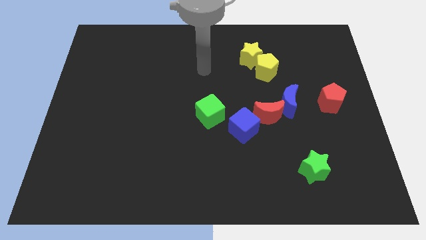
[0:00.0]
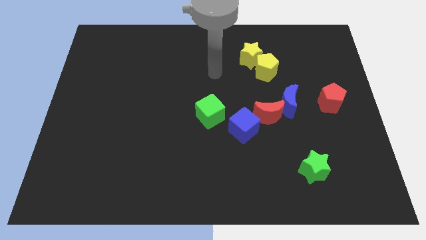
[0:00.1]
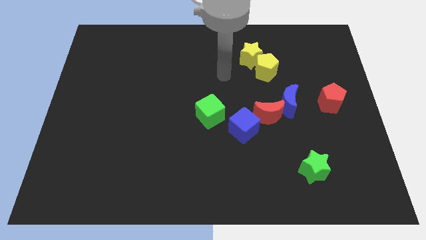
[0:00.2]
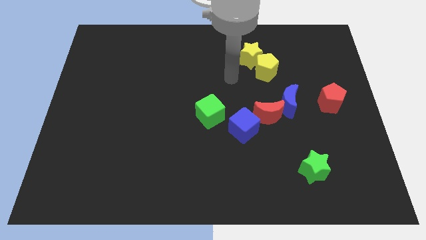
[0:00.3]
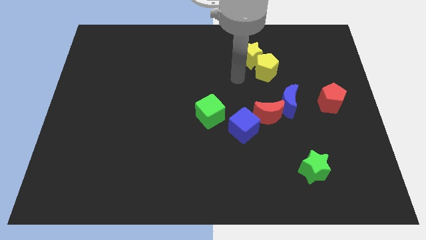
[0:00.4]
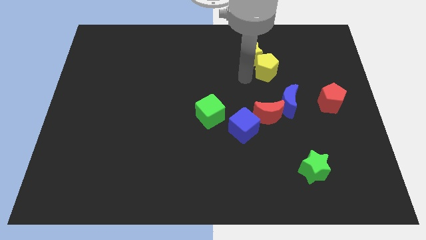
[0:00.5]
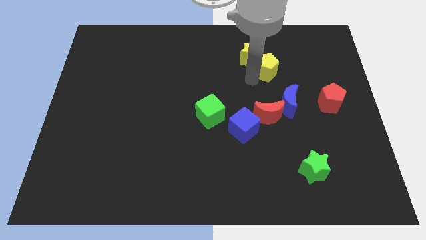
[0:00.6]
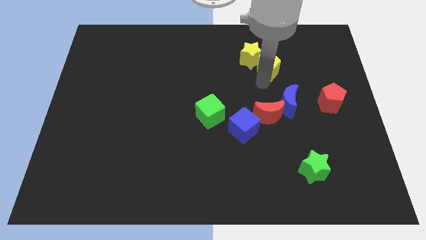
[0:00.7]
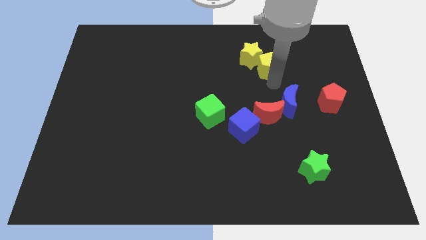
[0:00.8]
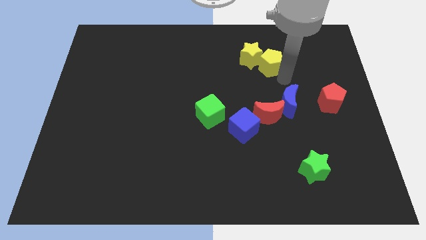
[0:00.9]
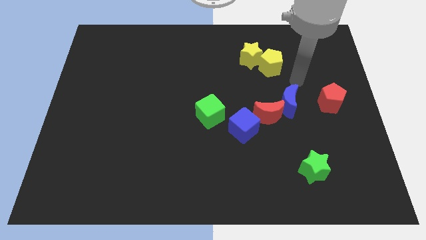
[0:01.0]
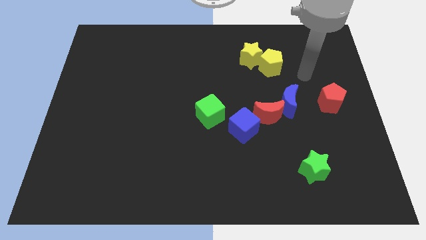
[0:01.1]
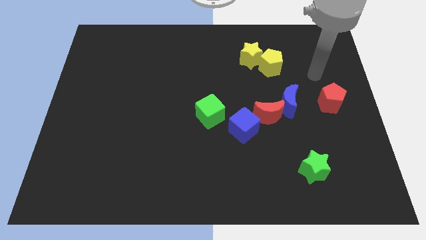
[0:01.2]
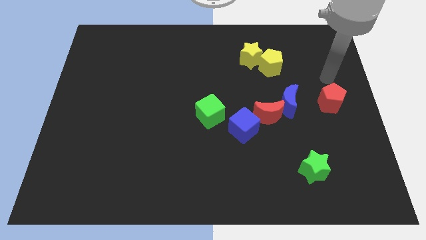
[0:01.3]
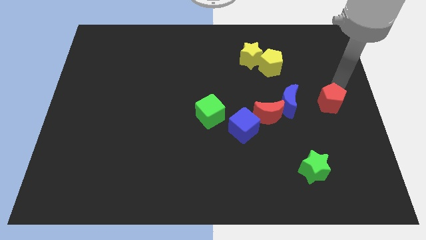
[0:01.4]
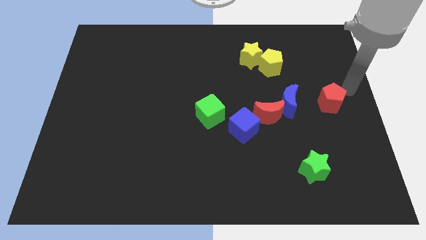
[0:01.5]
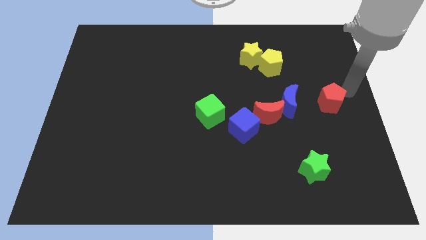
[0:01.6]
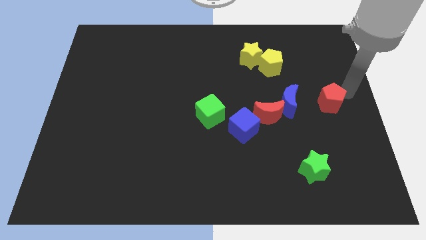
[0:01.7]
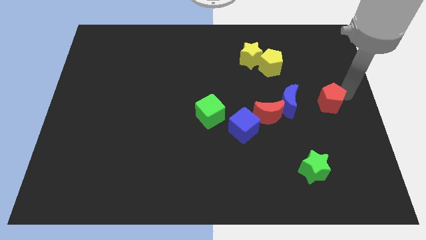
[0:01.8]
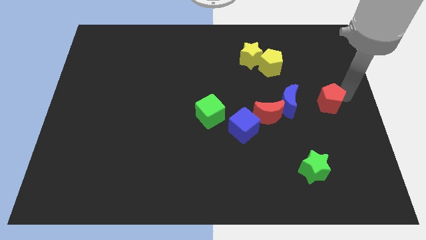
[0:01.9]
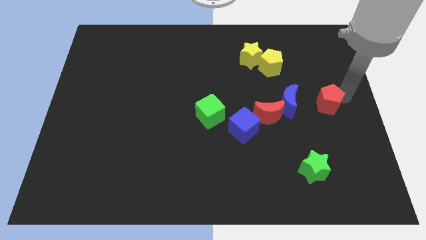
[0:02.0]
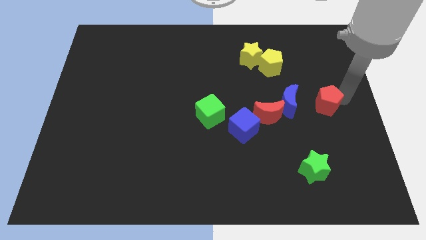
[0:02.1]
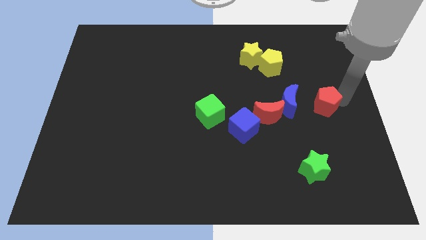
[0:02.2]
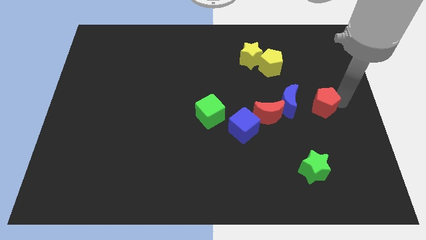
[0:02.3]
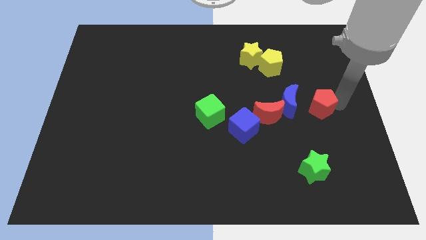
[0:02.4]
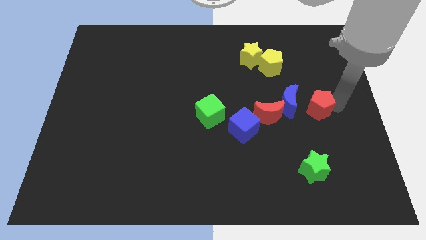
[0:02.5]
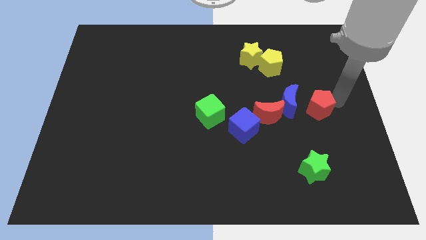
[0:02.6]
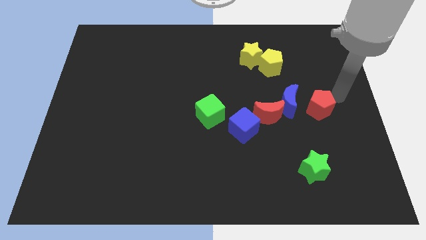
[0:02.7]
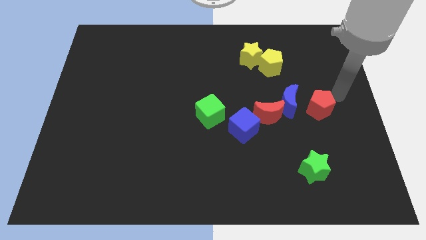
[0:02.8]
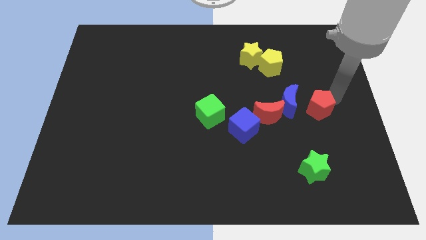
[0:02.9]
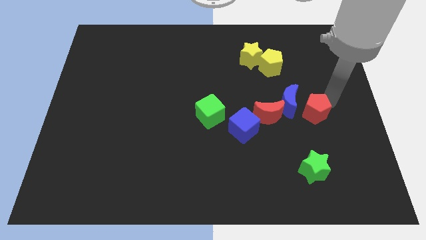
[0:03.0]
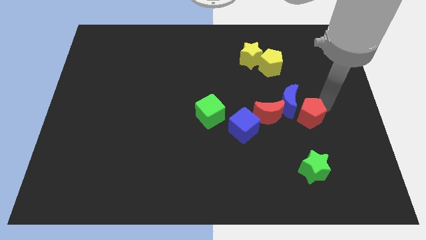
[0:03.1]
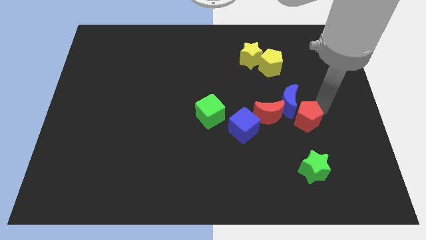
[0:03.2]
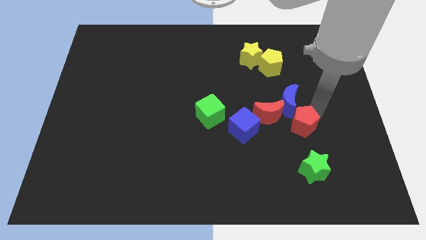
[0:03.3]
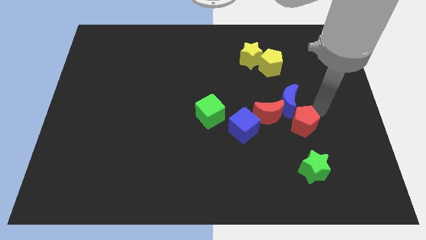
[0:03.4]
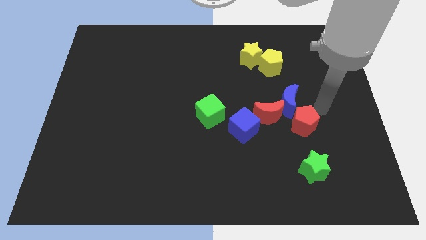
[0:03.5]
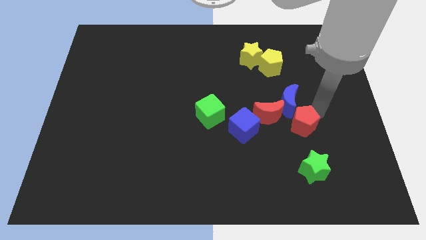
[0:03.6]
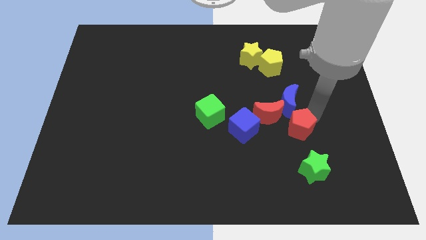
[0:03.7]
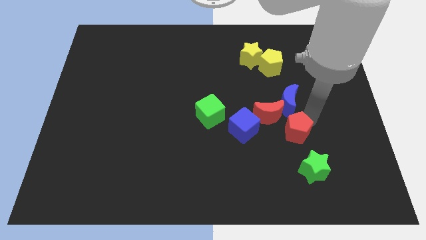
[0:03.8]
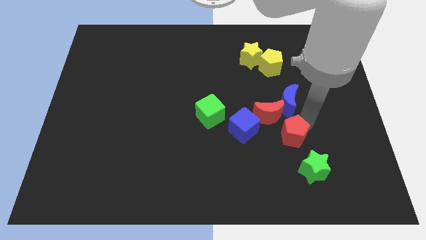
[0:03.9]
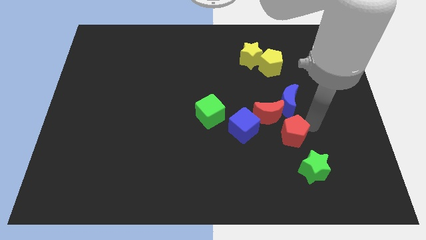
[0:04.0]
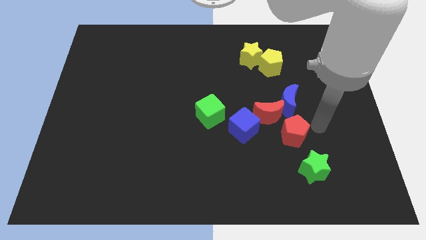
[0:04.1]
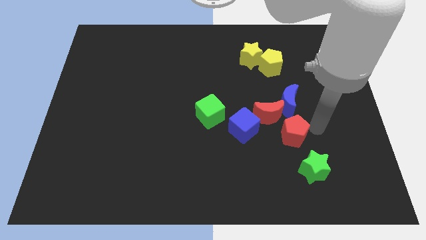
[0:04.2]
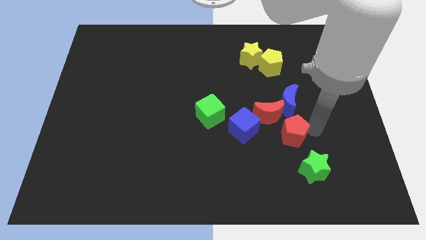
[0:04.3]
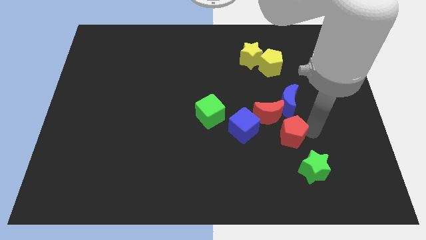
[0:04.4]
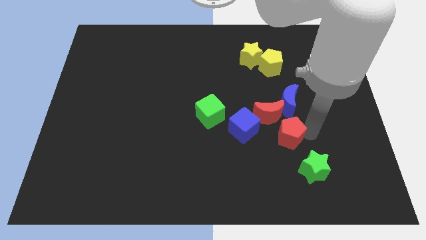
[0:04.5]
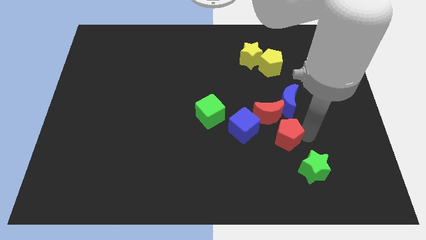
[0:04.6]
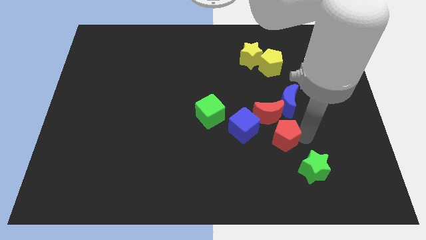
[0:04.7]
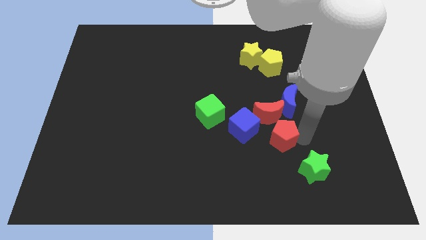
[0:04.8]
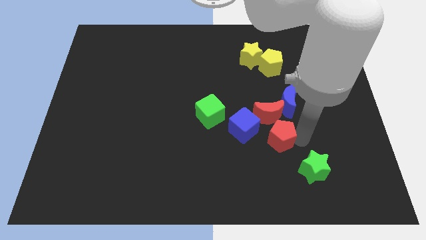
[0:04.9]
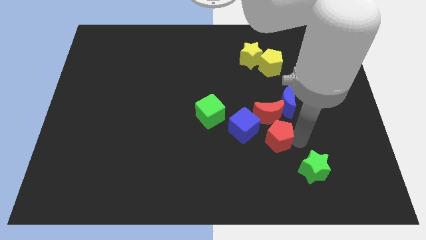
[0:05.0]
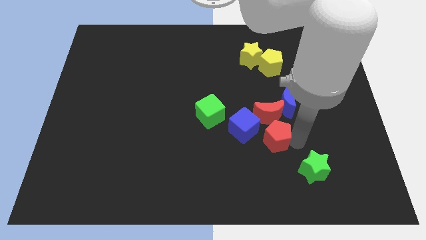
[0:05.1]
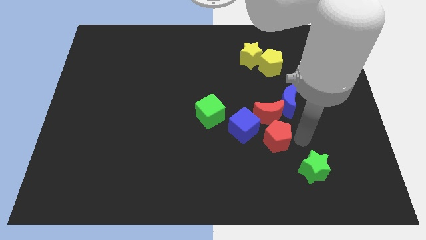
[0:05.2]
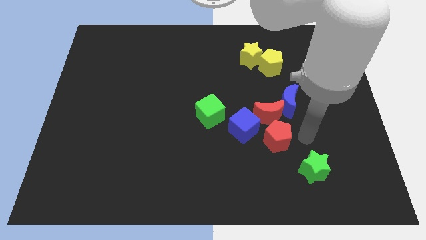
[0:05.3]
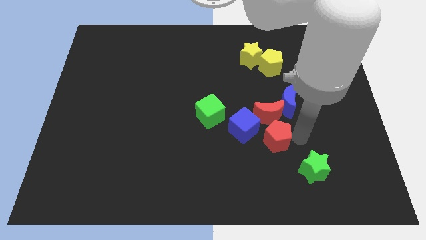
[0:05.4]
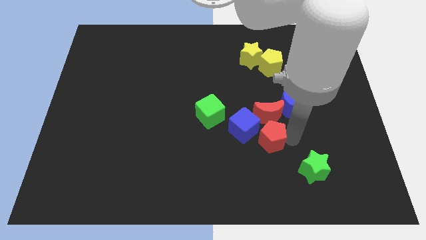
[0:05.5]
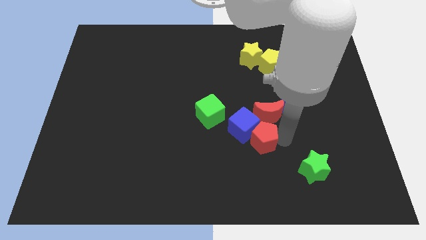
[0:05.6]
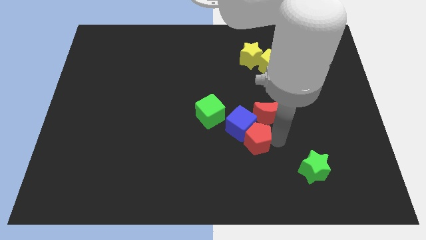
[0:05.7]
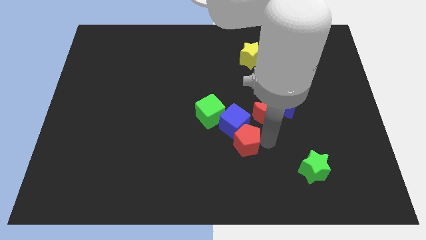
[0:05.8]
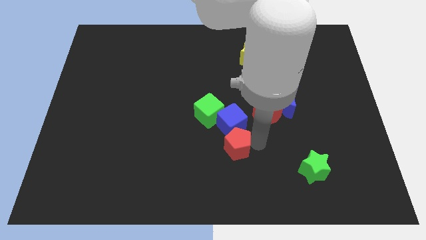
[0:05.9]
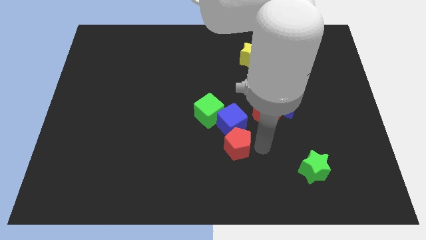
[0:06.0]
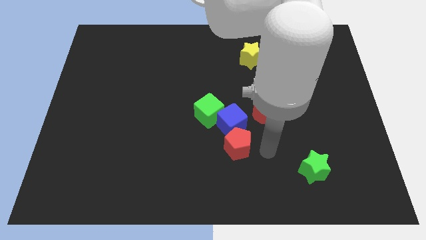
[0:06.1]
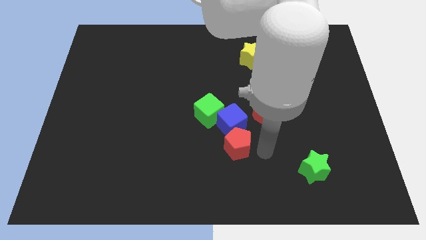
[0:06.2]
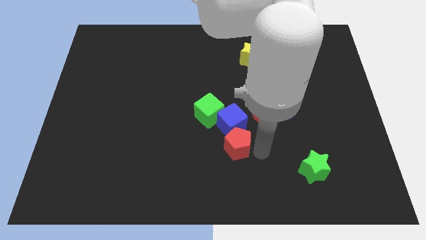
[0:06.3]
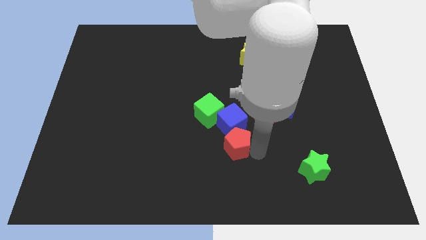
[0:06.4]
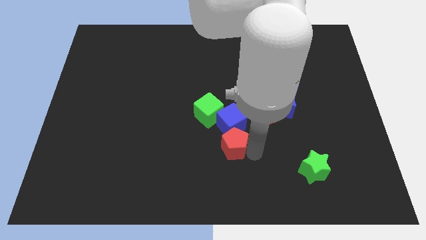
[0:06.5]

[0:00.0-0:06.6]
put the red pentagon diagonally down and to the left of the blue cube

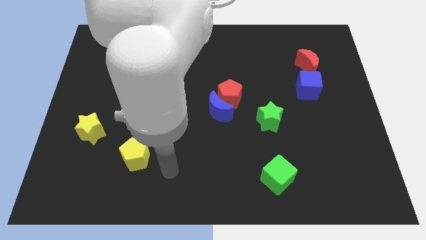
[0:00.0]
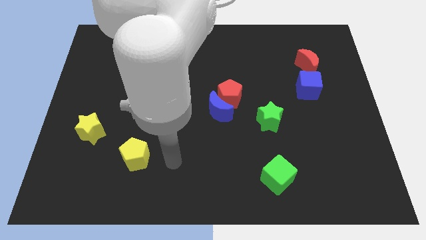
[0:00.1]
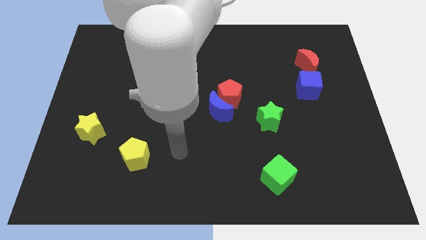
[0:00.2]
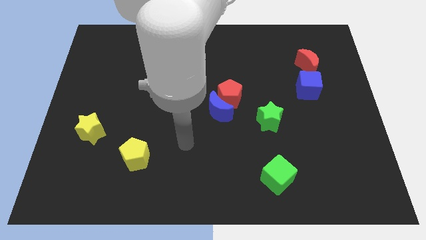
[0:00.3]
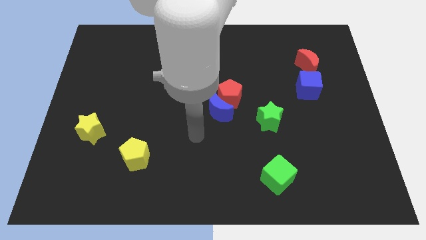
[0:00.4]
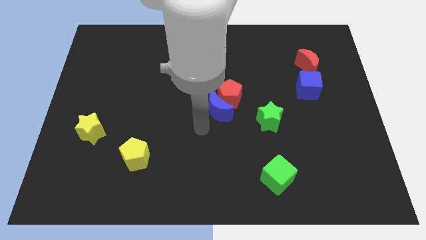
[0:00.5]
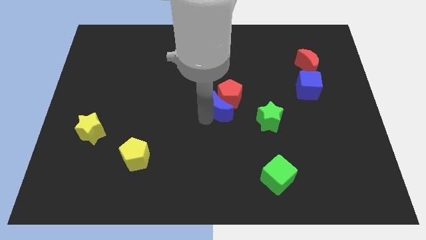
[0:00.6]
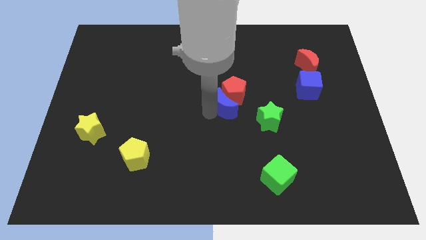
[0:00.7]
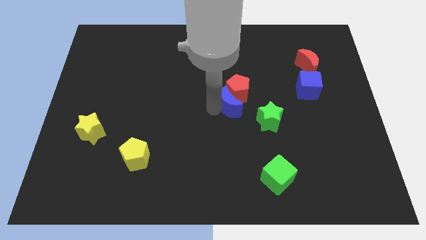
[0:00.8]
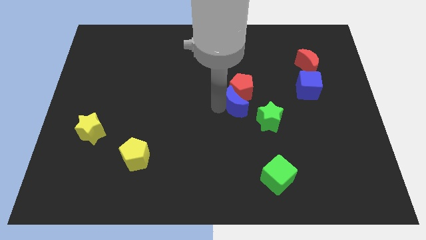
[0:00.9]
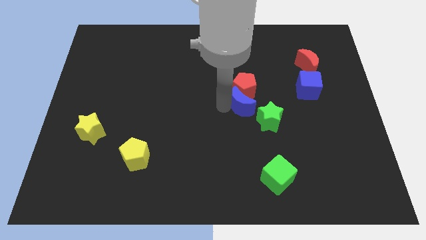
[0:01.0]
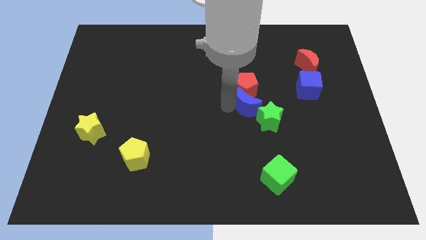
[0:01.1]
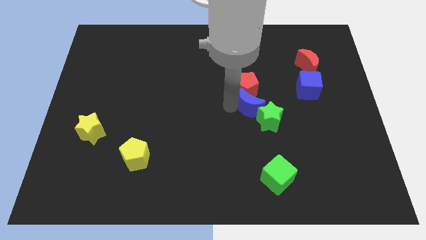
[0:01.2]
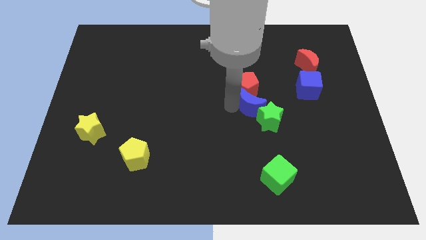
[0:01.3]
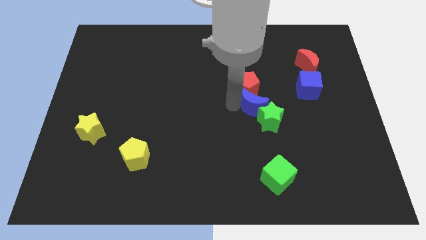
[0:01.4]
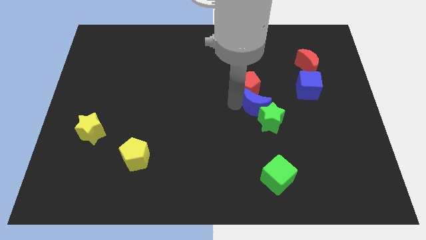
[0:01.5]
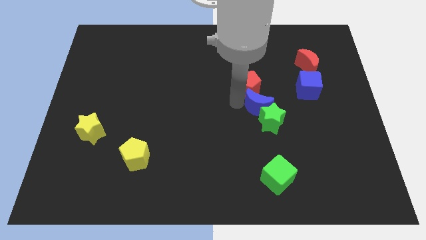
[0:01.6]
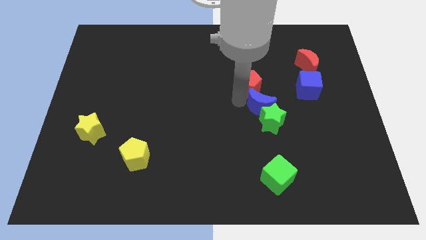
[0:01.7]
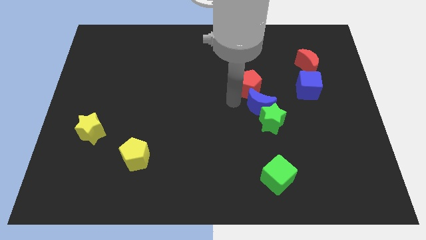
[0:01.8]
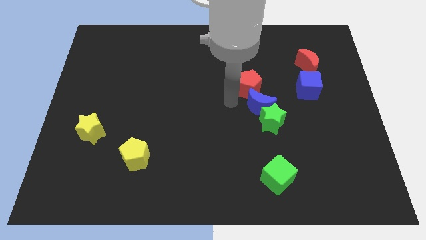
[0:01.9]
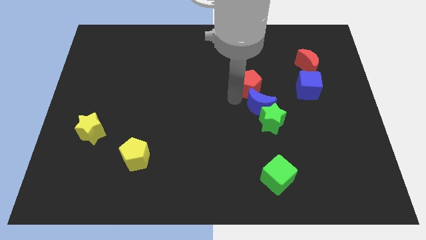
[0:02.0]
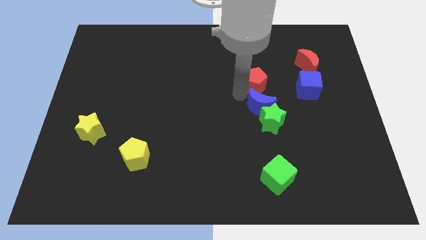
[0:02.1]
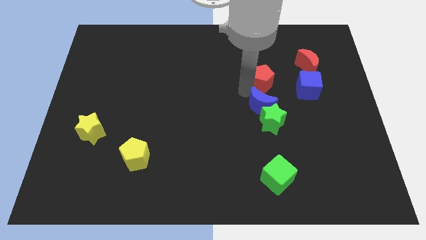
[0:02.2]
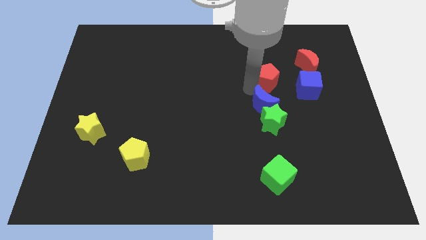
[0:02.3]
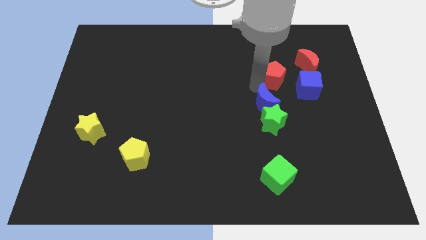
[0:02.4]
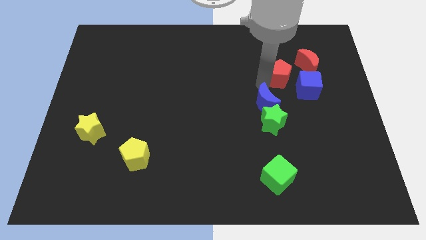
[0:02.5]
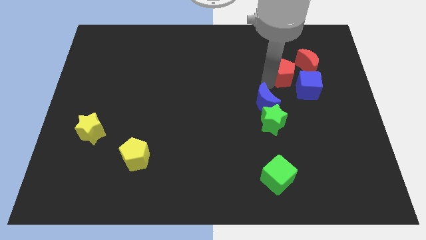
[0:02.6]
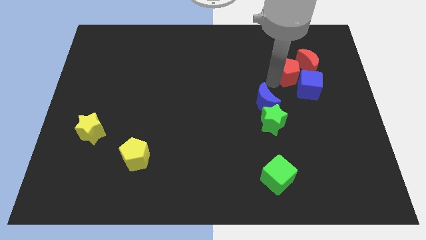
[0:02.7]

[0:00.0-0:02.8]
push the red pentagon above the blue cube
